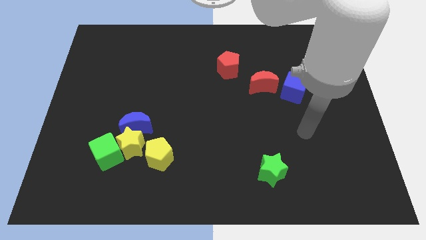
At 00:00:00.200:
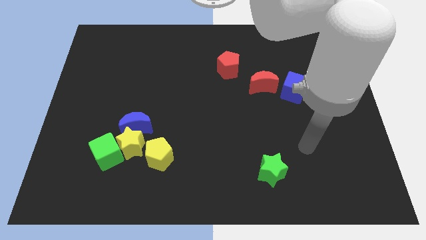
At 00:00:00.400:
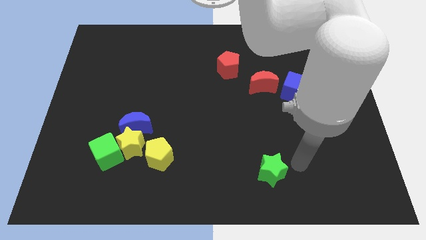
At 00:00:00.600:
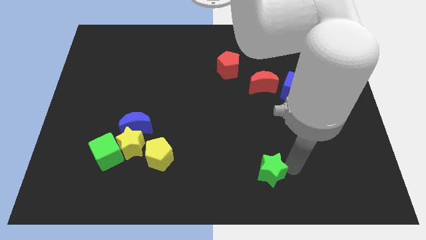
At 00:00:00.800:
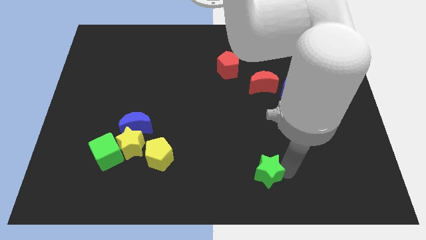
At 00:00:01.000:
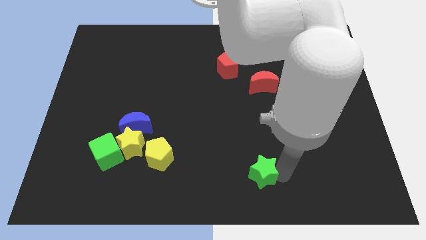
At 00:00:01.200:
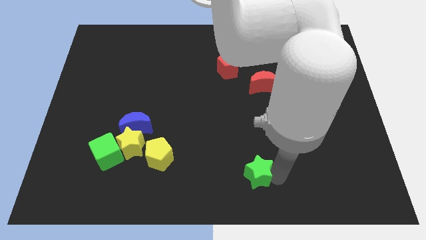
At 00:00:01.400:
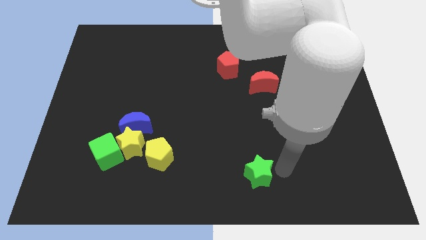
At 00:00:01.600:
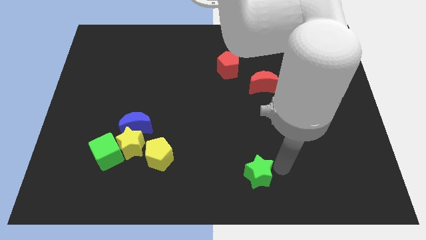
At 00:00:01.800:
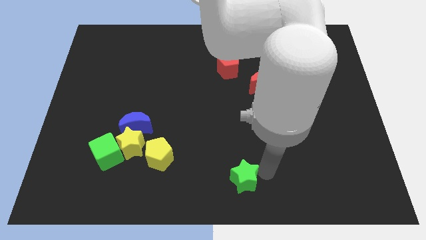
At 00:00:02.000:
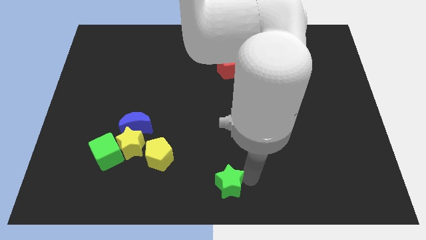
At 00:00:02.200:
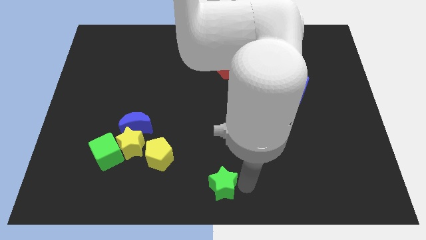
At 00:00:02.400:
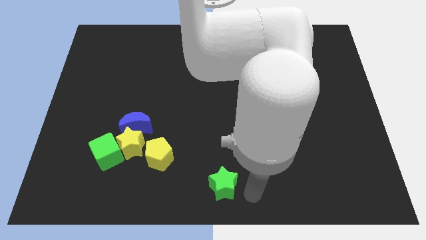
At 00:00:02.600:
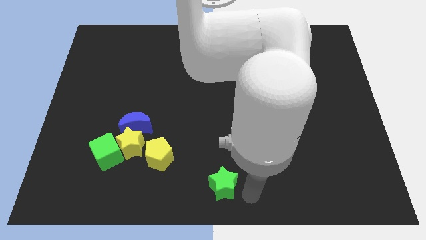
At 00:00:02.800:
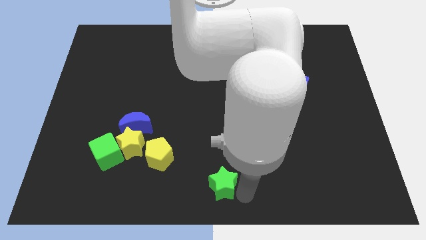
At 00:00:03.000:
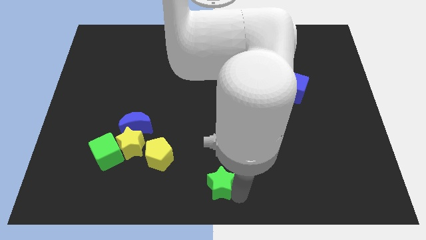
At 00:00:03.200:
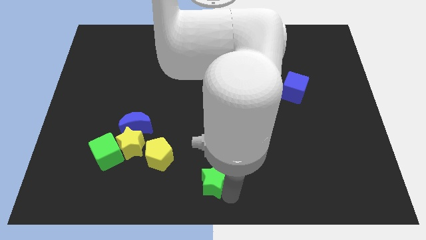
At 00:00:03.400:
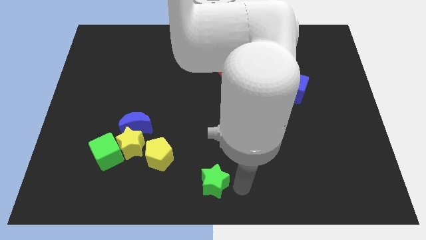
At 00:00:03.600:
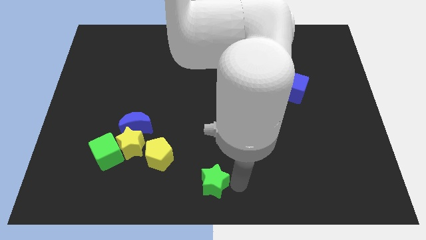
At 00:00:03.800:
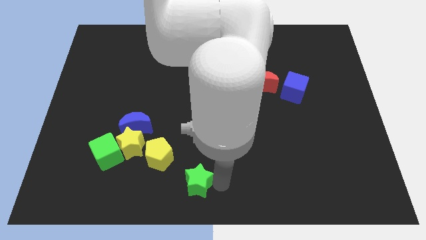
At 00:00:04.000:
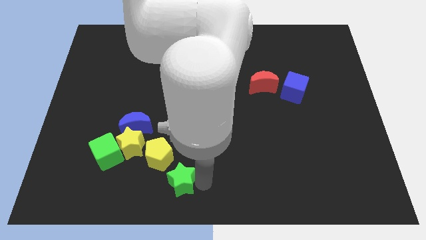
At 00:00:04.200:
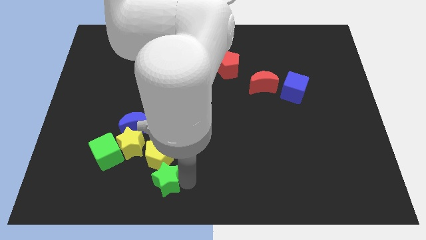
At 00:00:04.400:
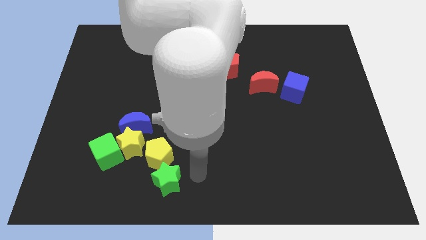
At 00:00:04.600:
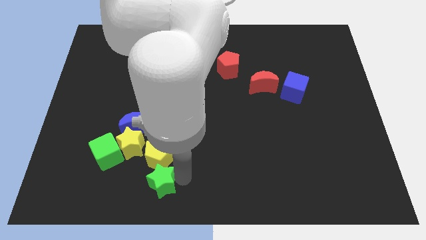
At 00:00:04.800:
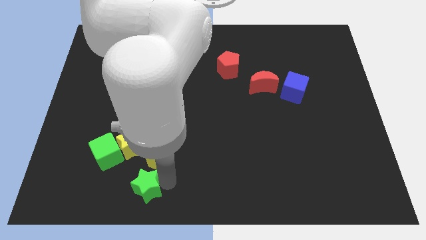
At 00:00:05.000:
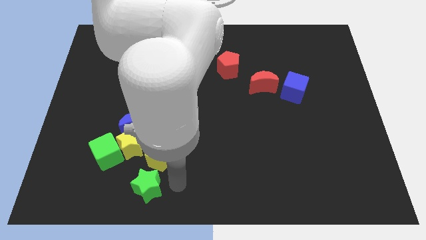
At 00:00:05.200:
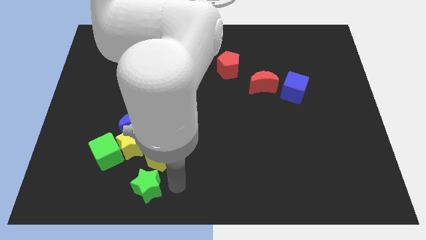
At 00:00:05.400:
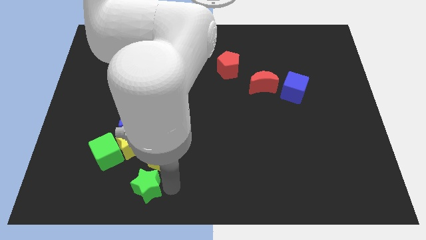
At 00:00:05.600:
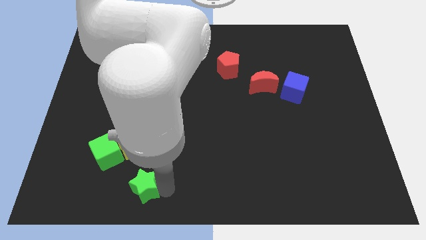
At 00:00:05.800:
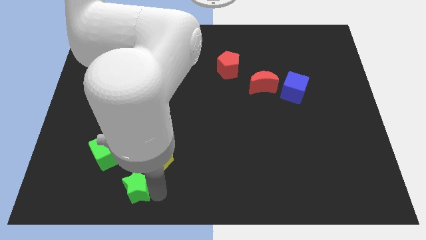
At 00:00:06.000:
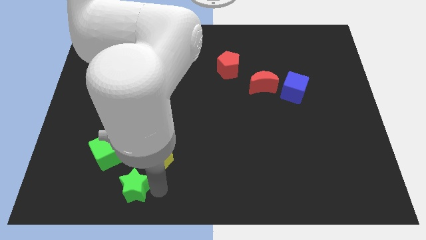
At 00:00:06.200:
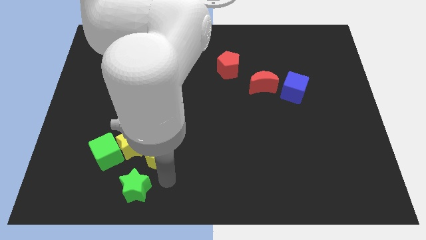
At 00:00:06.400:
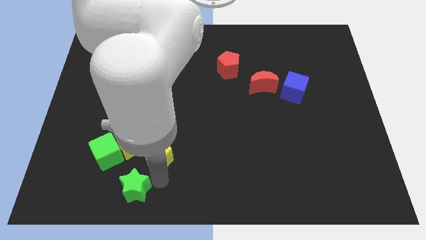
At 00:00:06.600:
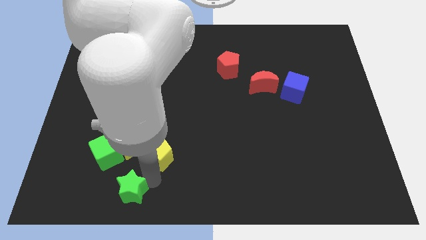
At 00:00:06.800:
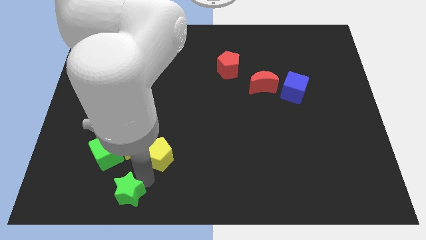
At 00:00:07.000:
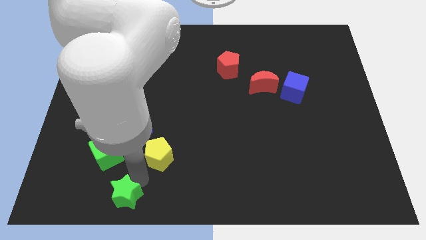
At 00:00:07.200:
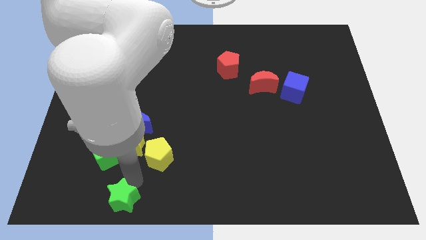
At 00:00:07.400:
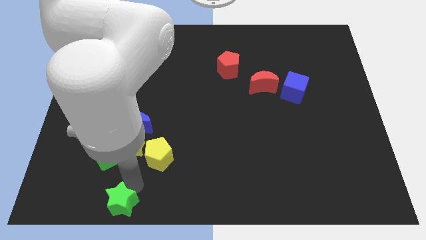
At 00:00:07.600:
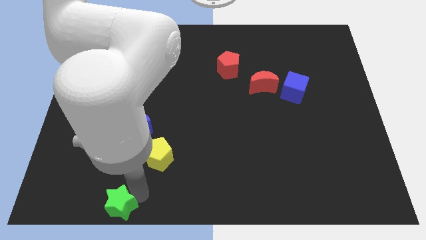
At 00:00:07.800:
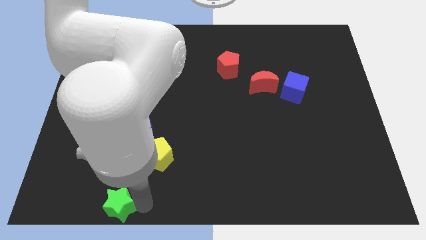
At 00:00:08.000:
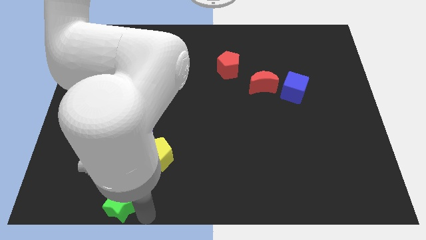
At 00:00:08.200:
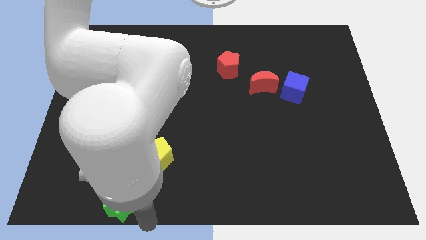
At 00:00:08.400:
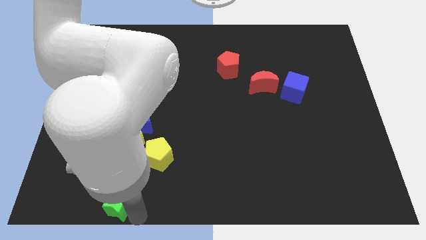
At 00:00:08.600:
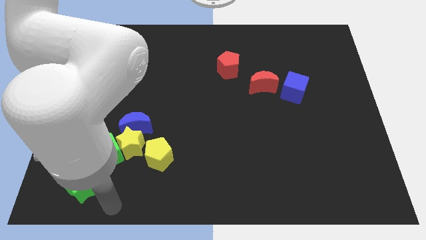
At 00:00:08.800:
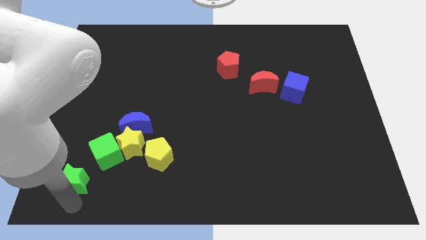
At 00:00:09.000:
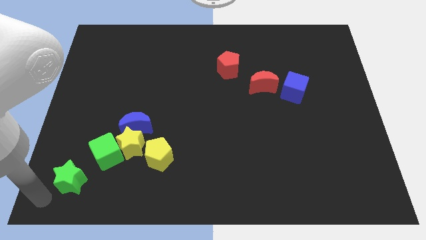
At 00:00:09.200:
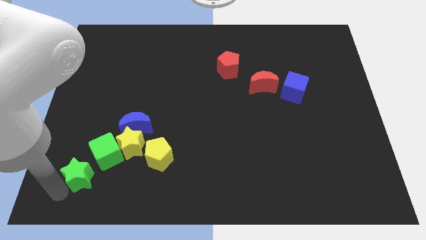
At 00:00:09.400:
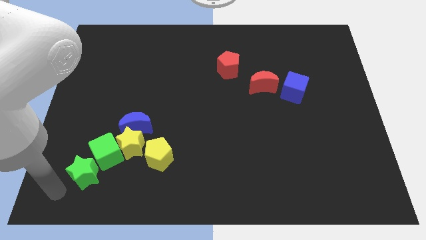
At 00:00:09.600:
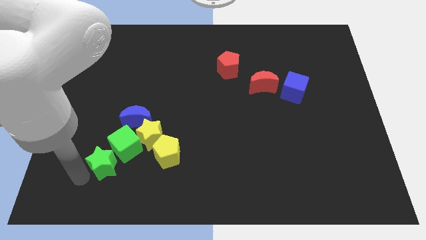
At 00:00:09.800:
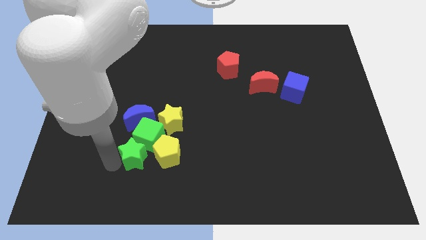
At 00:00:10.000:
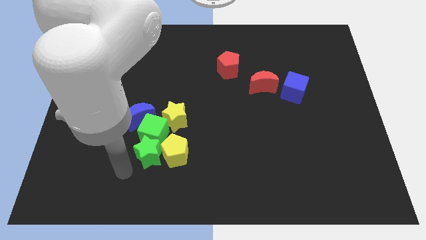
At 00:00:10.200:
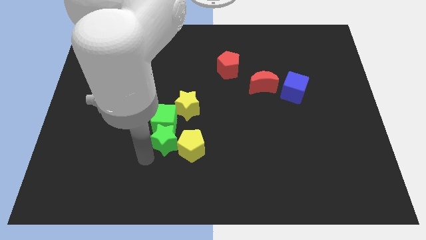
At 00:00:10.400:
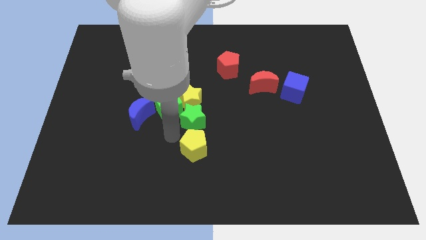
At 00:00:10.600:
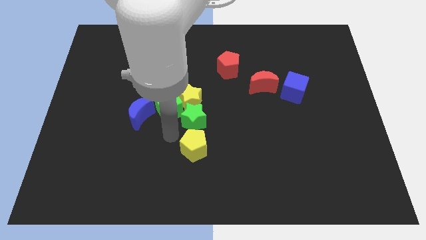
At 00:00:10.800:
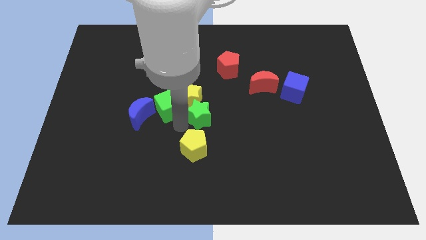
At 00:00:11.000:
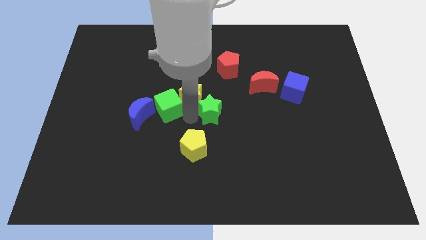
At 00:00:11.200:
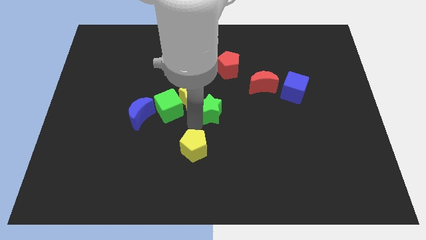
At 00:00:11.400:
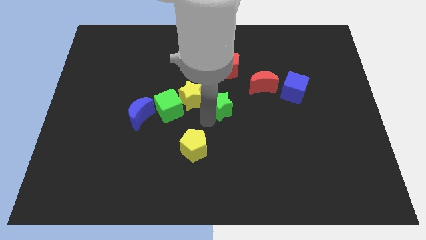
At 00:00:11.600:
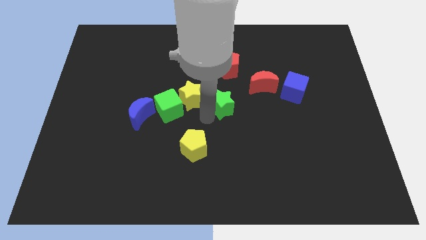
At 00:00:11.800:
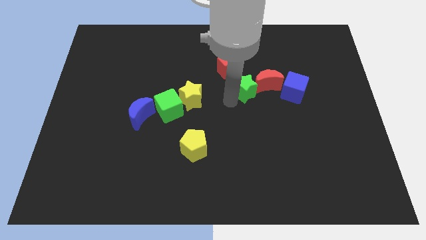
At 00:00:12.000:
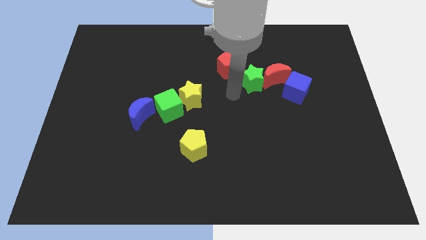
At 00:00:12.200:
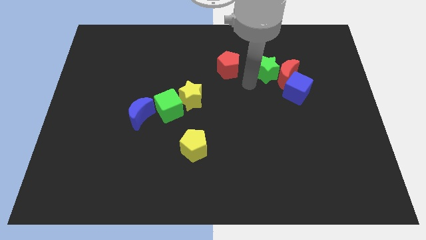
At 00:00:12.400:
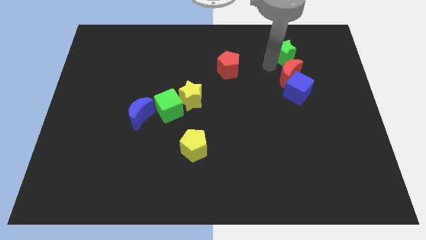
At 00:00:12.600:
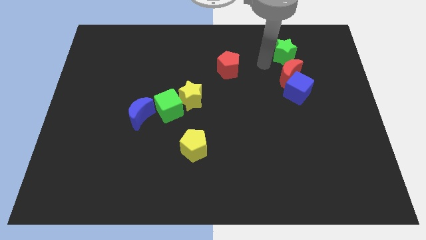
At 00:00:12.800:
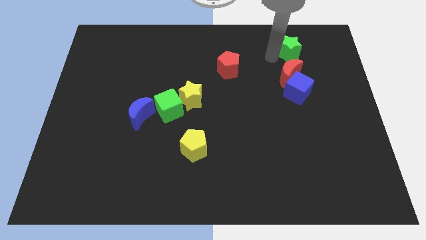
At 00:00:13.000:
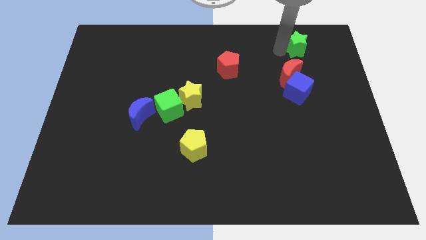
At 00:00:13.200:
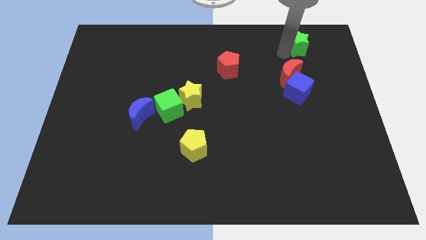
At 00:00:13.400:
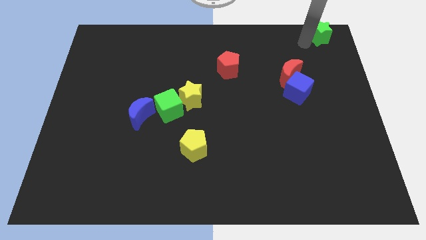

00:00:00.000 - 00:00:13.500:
slide the green star to the top right corner
